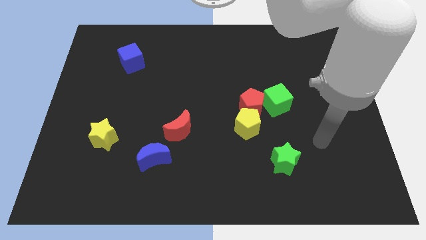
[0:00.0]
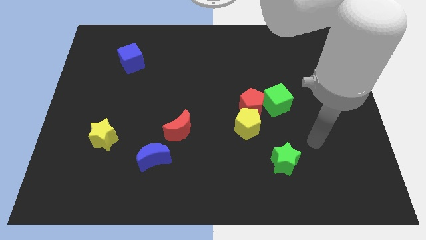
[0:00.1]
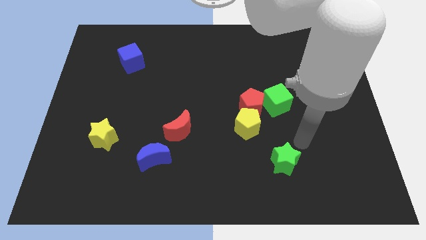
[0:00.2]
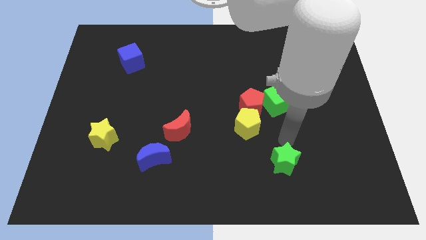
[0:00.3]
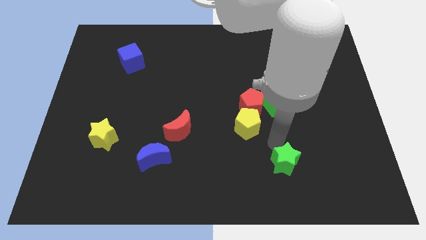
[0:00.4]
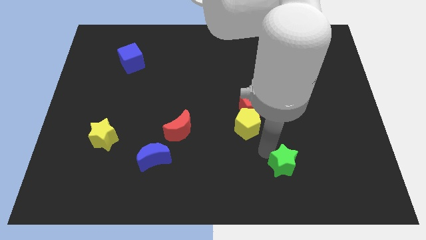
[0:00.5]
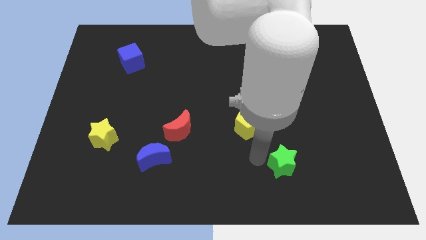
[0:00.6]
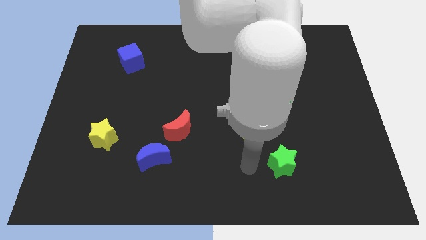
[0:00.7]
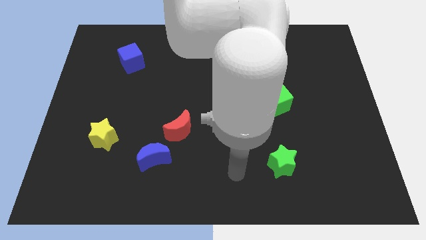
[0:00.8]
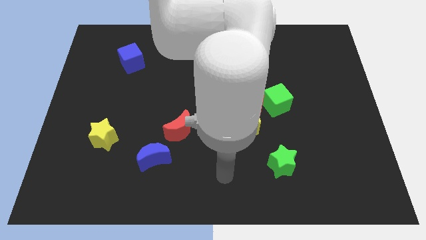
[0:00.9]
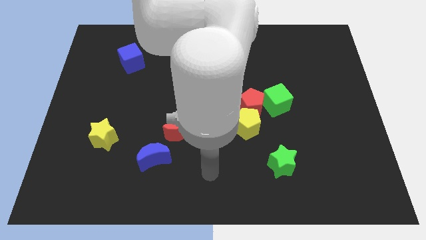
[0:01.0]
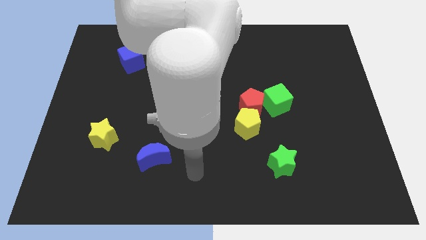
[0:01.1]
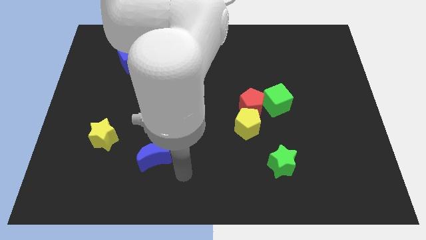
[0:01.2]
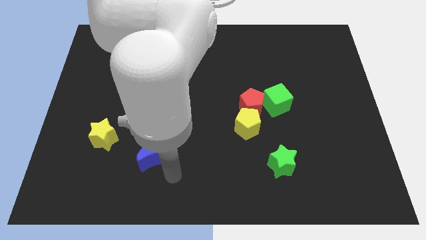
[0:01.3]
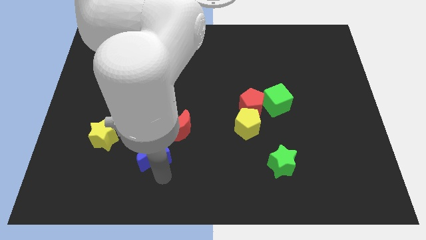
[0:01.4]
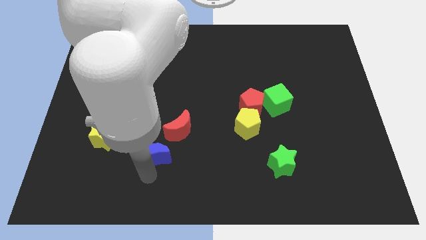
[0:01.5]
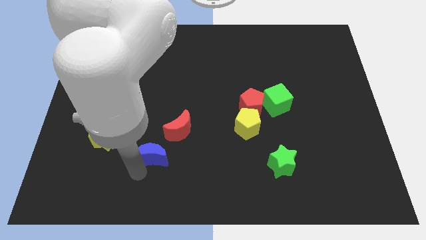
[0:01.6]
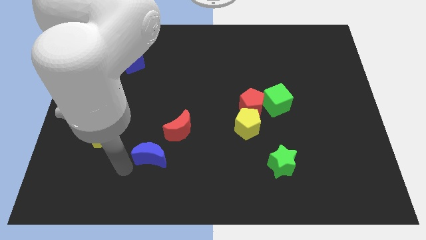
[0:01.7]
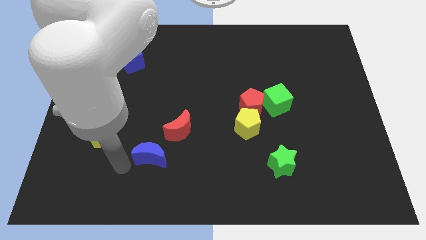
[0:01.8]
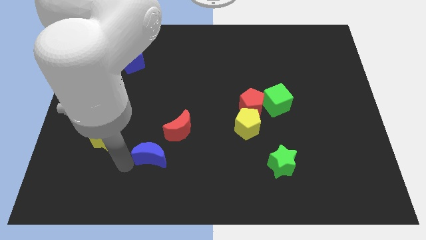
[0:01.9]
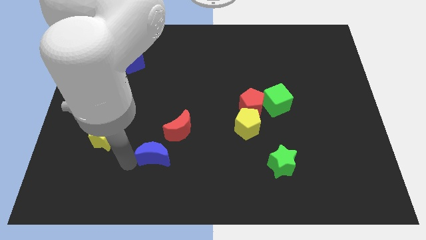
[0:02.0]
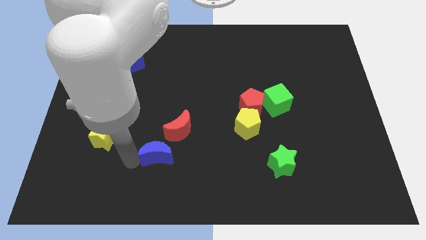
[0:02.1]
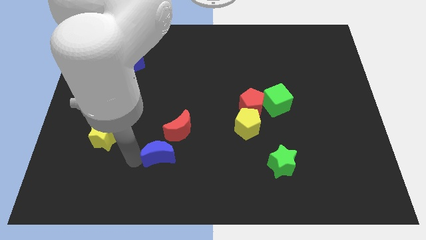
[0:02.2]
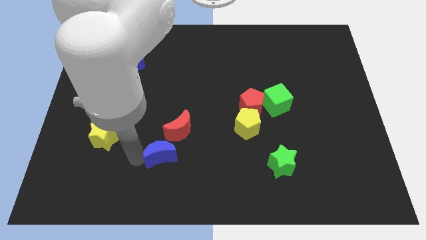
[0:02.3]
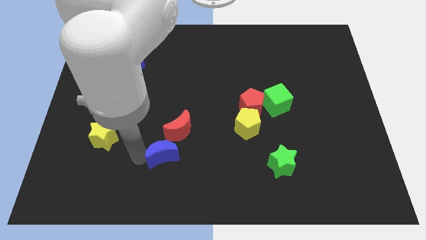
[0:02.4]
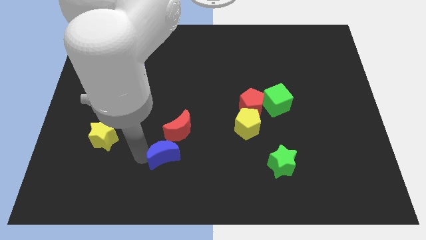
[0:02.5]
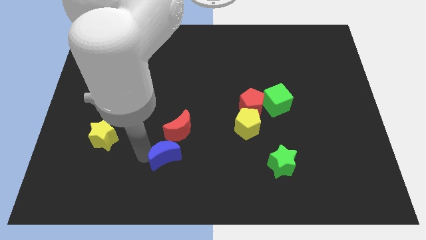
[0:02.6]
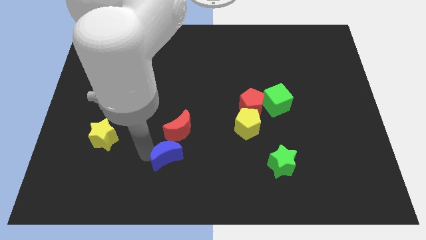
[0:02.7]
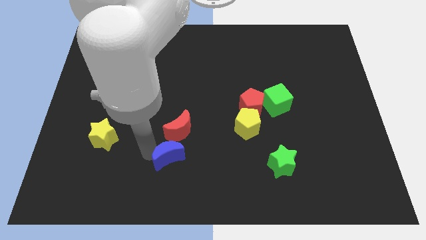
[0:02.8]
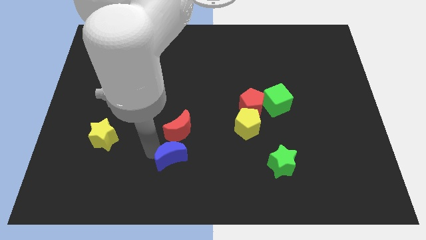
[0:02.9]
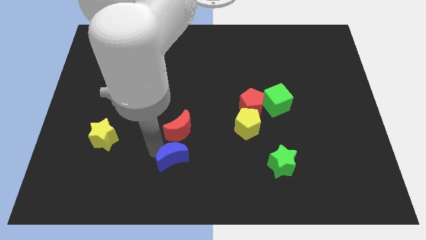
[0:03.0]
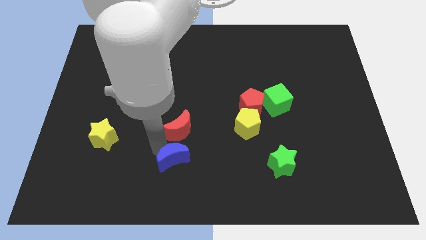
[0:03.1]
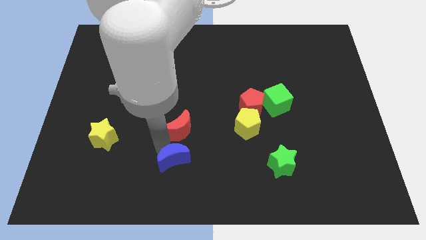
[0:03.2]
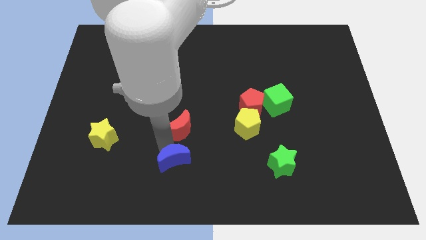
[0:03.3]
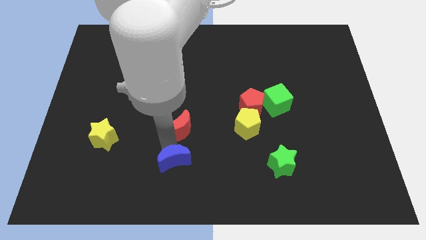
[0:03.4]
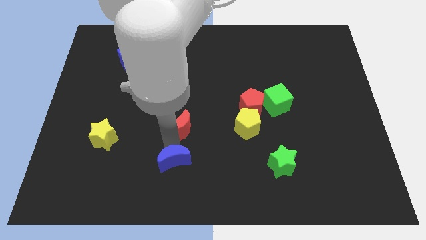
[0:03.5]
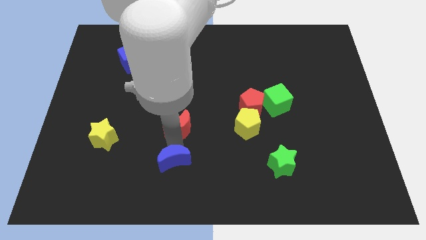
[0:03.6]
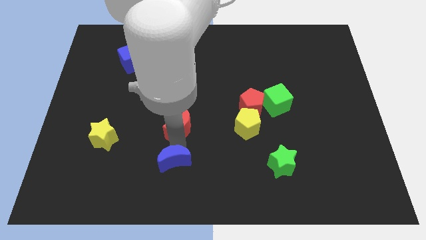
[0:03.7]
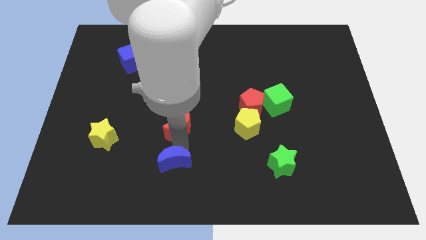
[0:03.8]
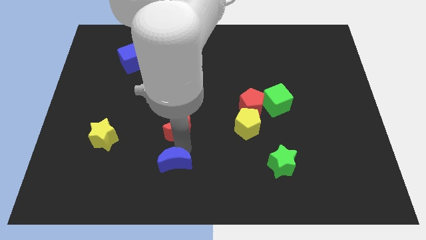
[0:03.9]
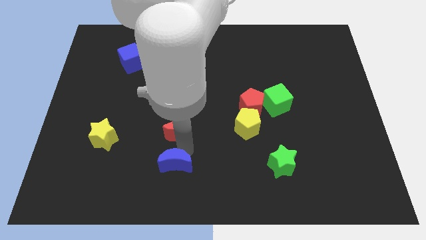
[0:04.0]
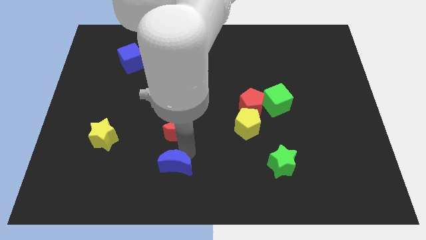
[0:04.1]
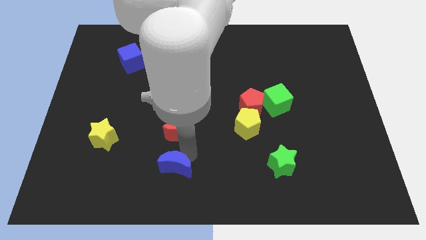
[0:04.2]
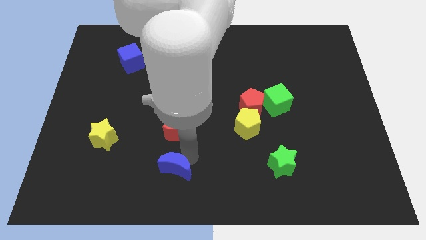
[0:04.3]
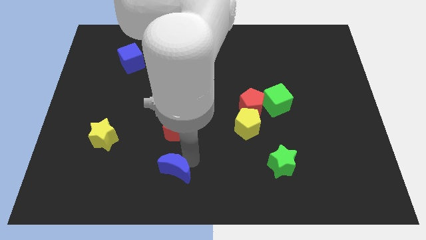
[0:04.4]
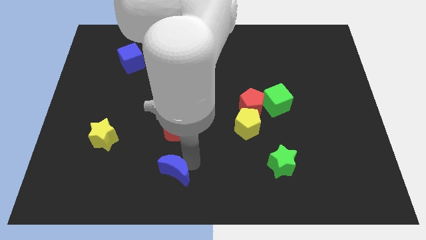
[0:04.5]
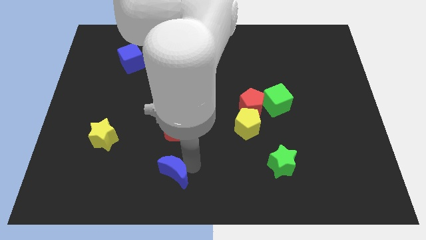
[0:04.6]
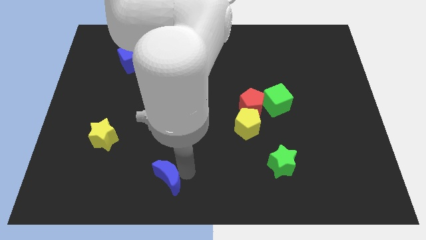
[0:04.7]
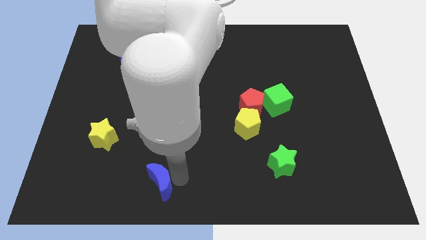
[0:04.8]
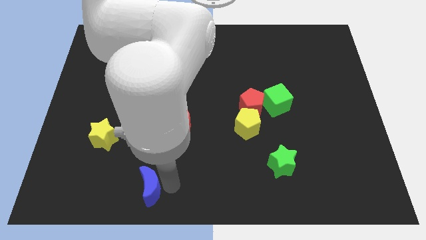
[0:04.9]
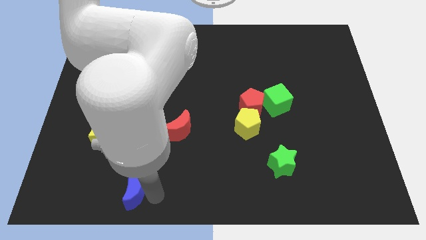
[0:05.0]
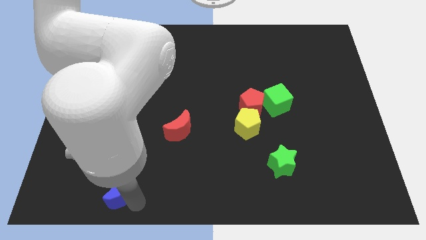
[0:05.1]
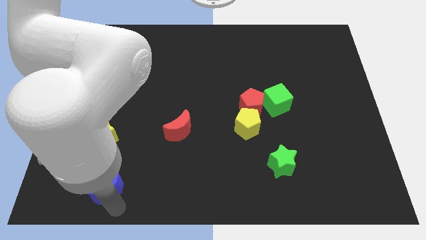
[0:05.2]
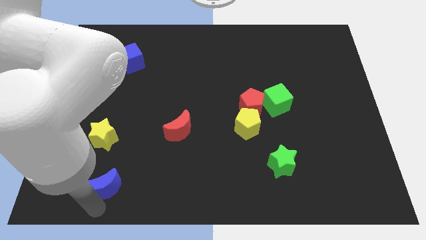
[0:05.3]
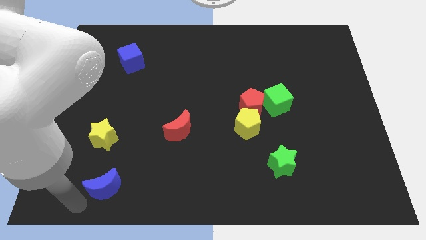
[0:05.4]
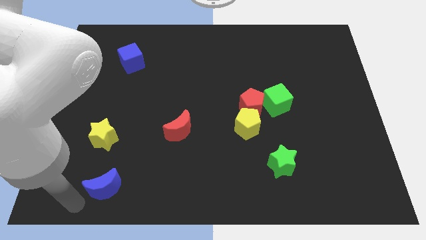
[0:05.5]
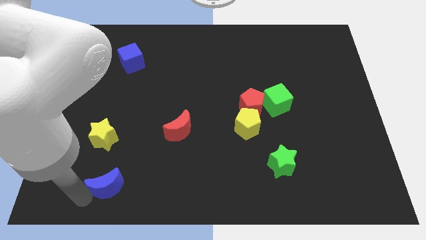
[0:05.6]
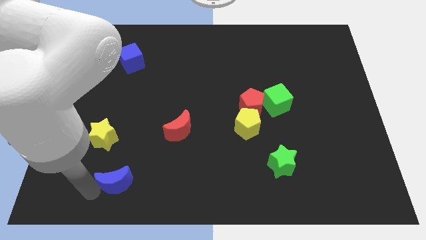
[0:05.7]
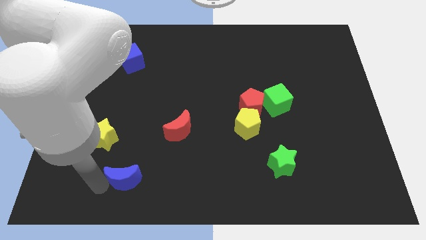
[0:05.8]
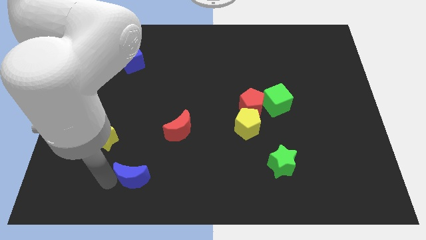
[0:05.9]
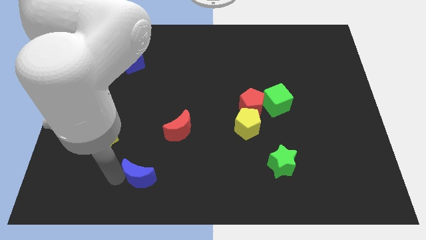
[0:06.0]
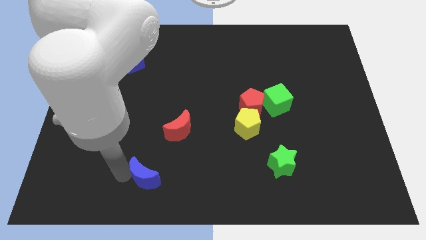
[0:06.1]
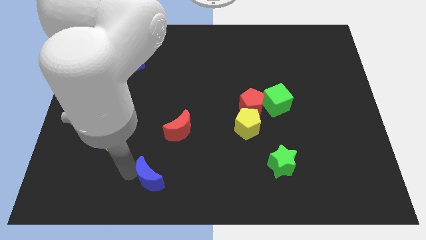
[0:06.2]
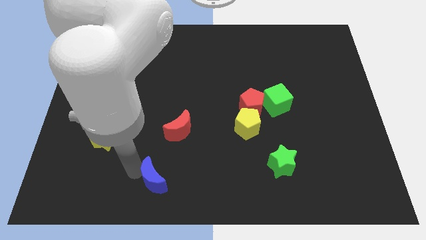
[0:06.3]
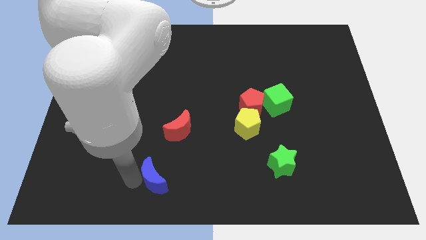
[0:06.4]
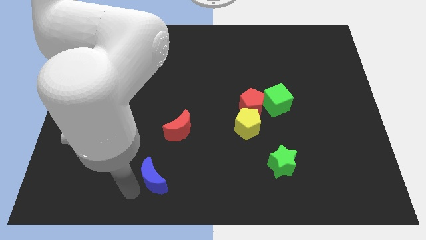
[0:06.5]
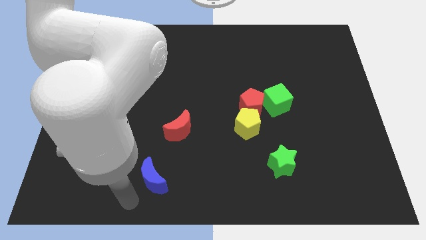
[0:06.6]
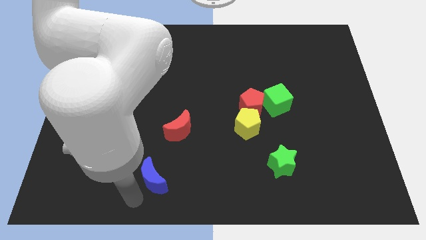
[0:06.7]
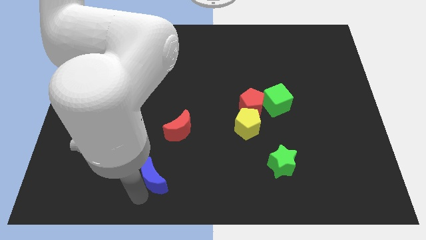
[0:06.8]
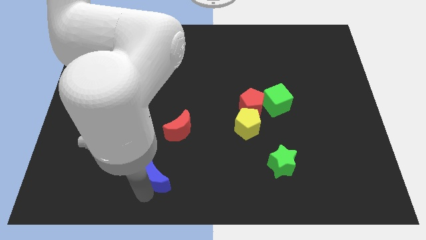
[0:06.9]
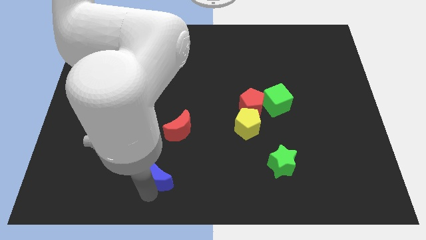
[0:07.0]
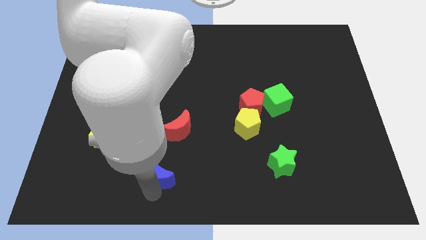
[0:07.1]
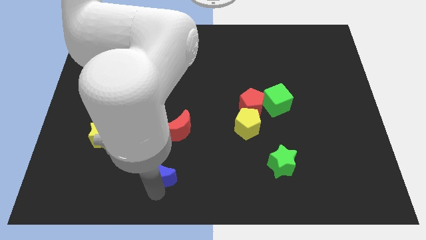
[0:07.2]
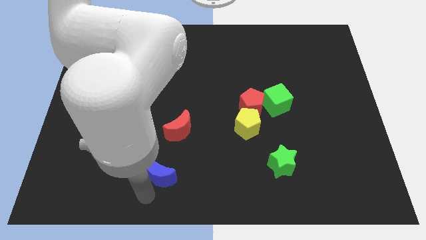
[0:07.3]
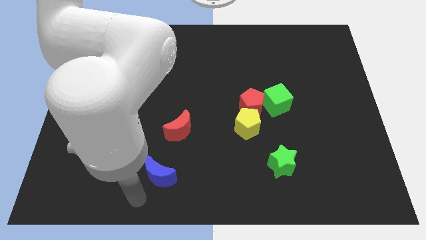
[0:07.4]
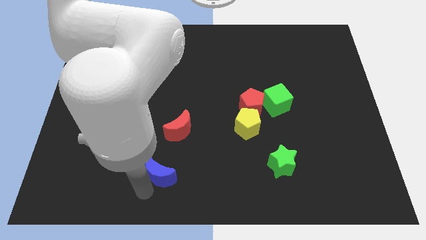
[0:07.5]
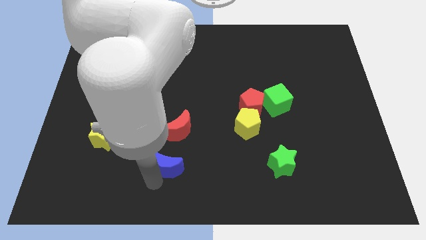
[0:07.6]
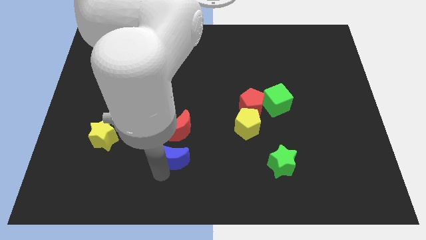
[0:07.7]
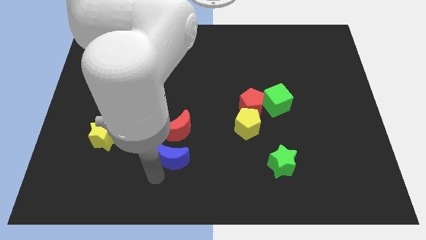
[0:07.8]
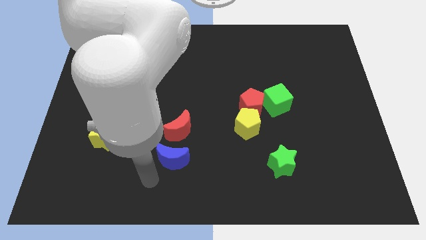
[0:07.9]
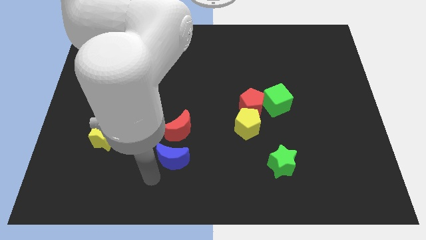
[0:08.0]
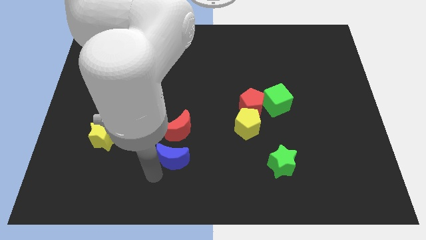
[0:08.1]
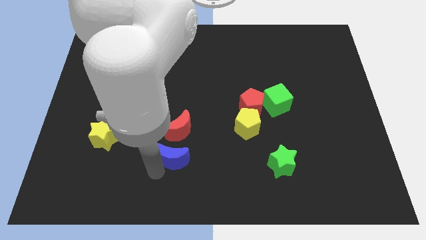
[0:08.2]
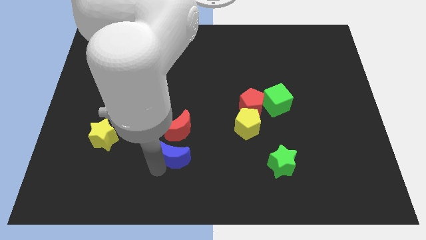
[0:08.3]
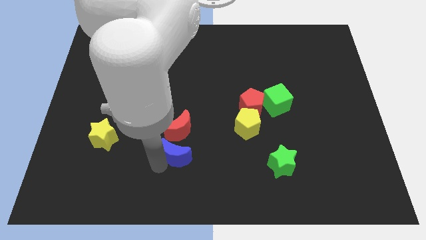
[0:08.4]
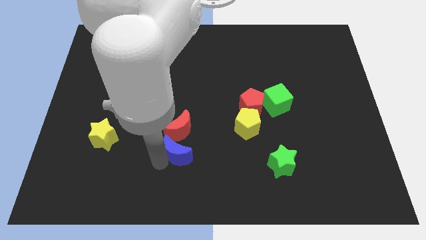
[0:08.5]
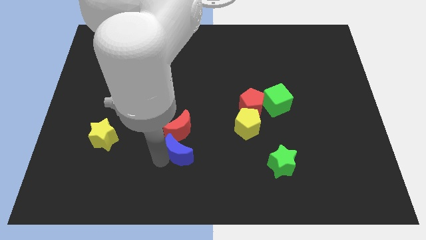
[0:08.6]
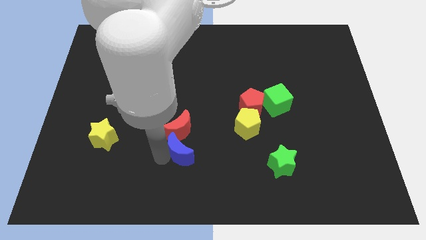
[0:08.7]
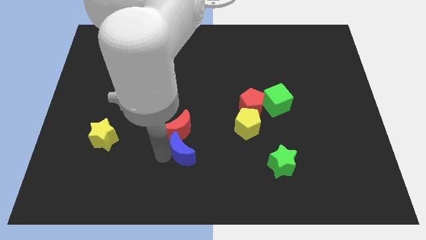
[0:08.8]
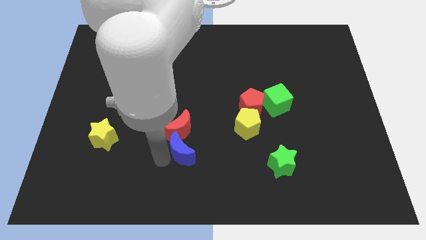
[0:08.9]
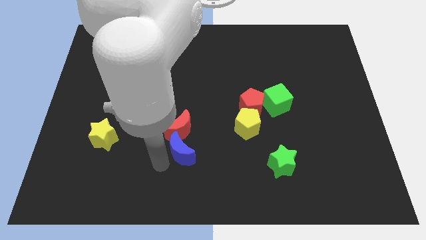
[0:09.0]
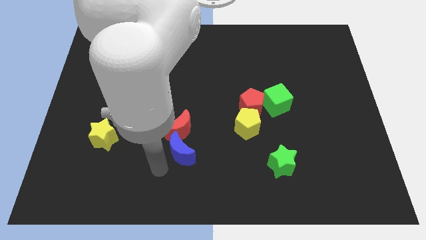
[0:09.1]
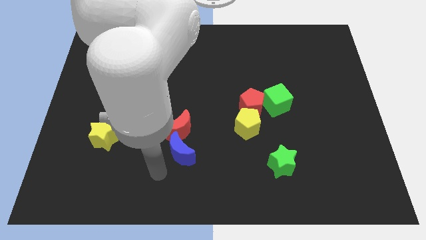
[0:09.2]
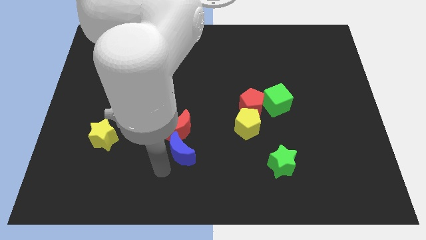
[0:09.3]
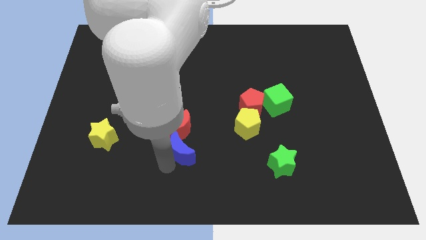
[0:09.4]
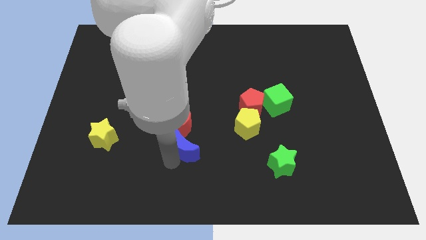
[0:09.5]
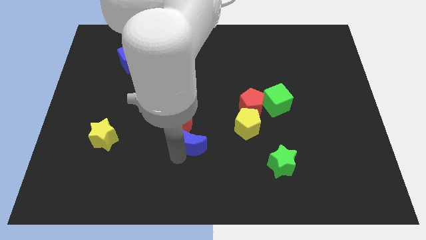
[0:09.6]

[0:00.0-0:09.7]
slide the blue moon a little upwards and then to the right
